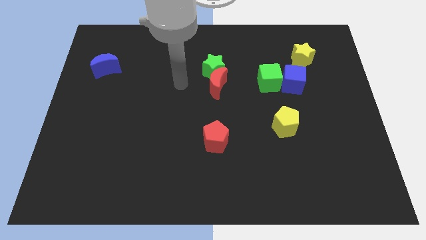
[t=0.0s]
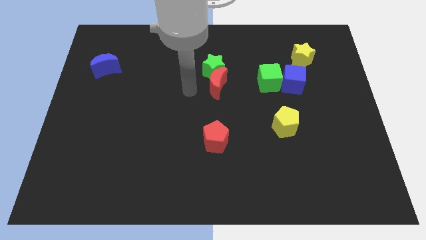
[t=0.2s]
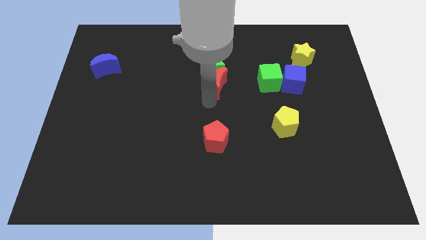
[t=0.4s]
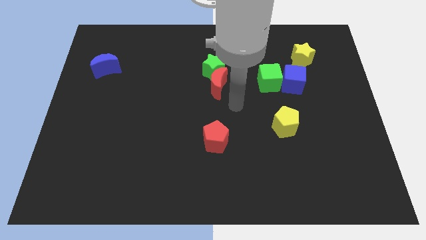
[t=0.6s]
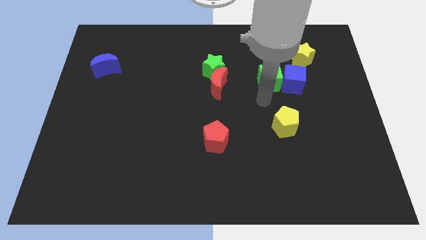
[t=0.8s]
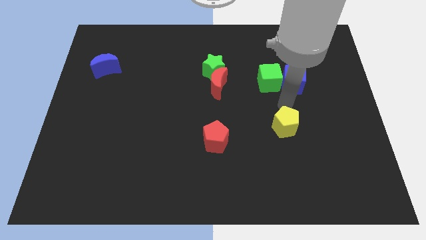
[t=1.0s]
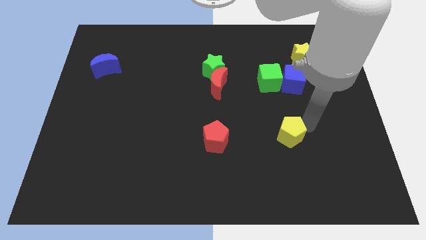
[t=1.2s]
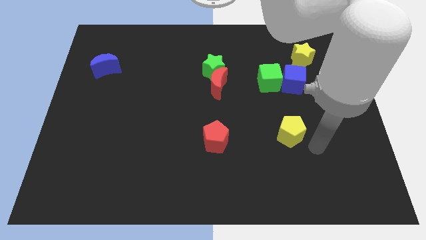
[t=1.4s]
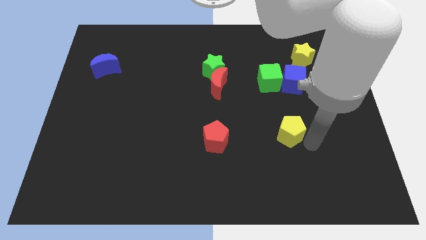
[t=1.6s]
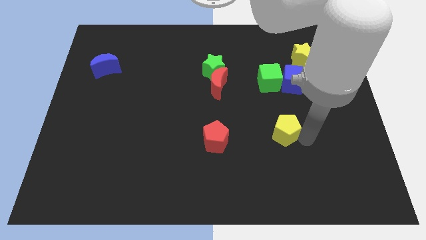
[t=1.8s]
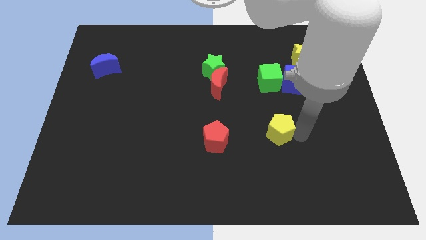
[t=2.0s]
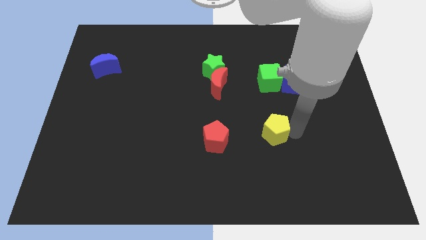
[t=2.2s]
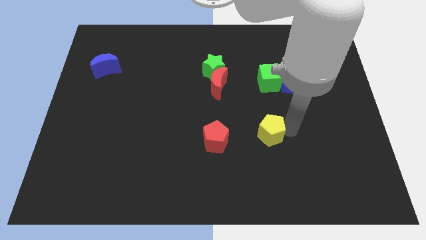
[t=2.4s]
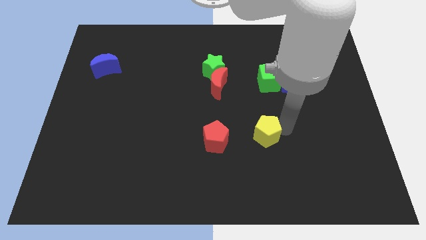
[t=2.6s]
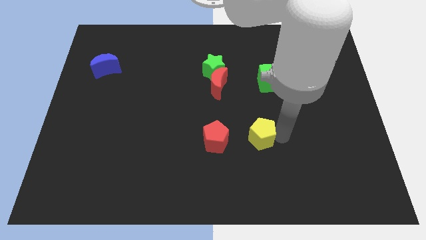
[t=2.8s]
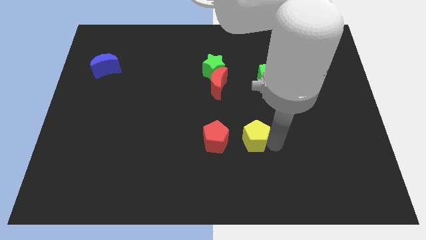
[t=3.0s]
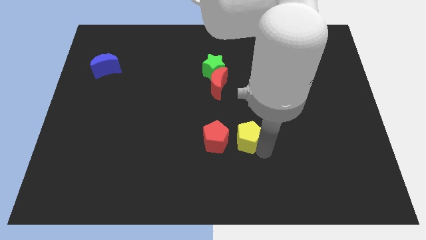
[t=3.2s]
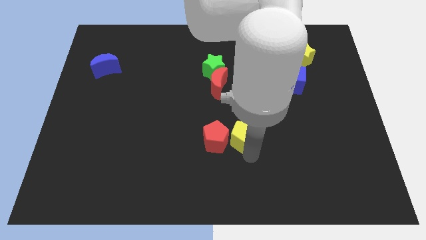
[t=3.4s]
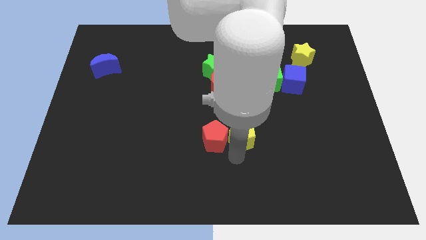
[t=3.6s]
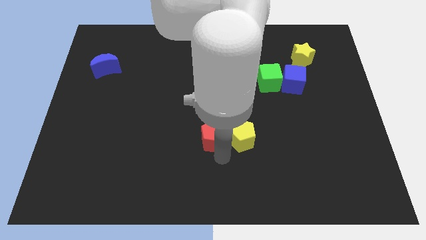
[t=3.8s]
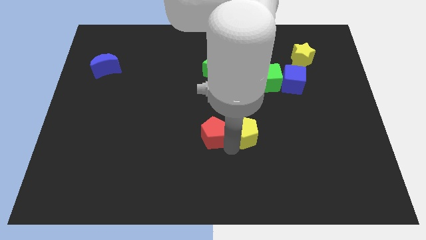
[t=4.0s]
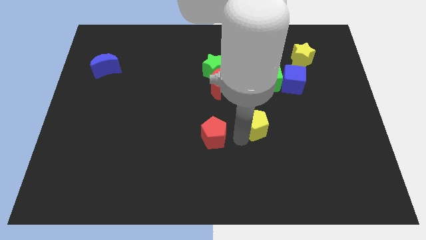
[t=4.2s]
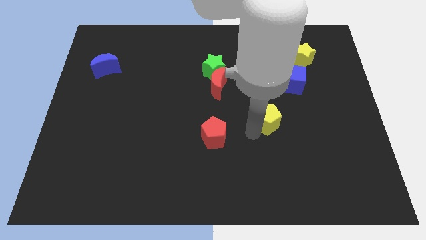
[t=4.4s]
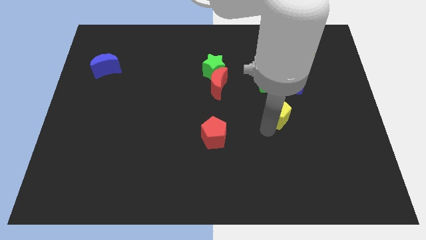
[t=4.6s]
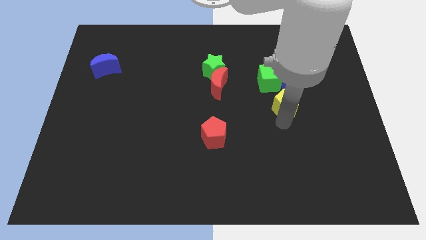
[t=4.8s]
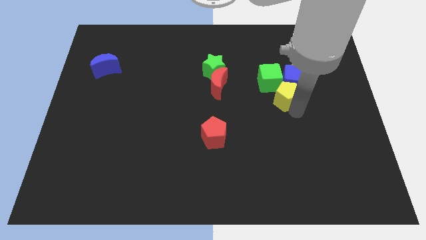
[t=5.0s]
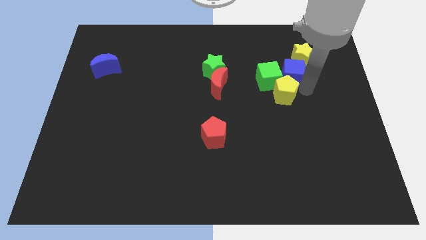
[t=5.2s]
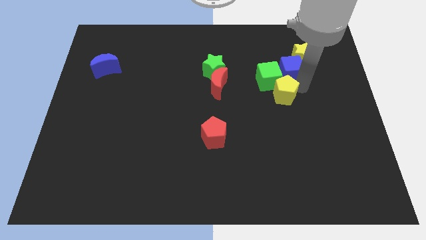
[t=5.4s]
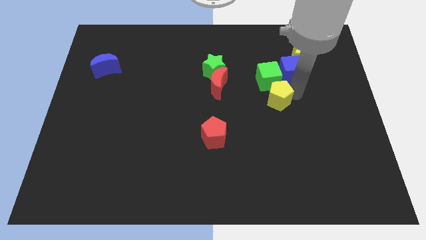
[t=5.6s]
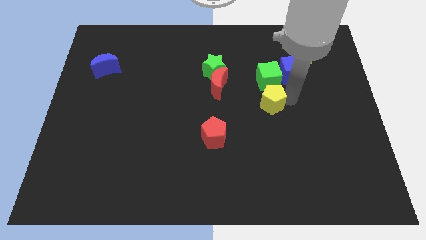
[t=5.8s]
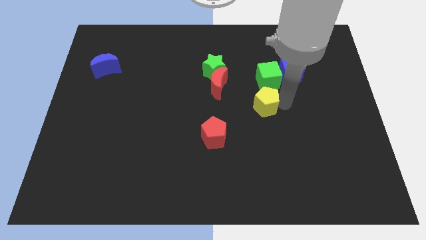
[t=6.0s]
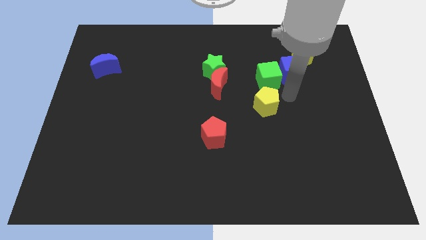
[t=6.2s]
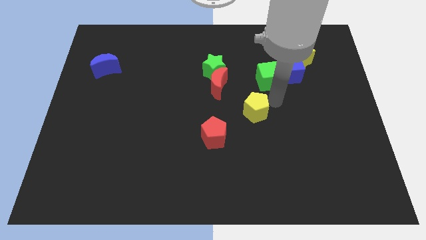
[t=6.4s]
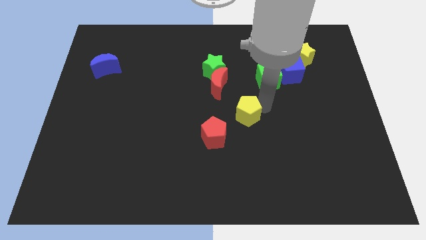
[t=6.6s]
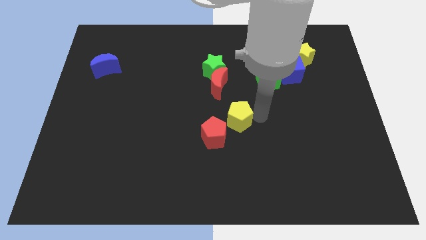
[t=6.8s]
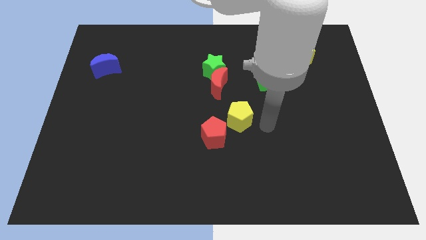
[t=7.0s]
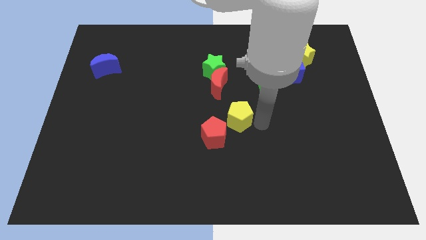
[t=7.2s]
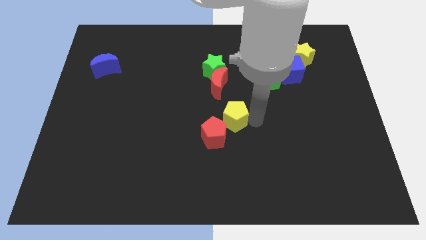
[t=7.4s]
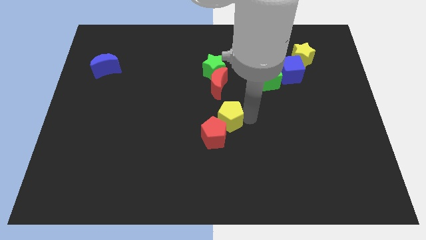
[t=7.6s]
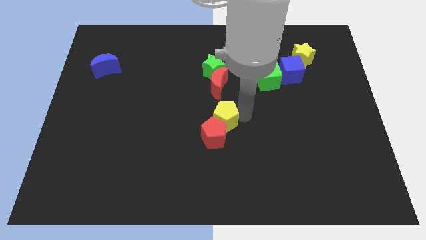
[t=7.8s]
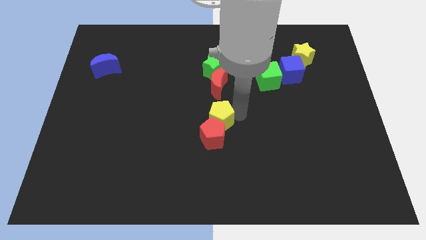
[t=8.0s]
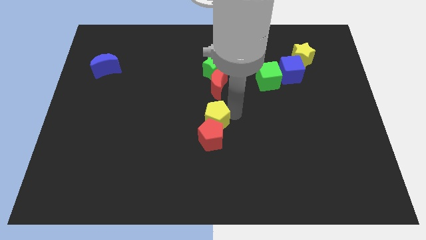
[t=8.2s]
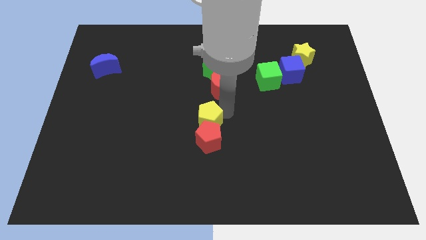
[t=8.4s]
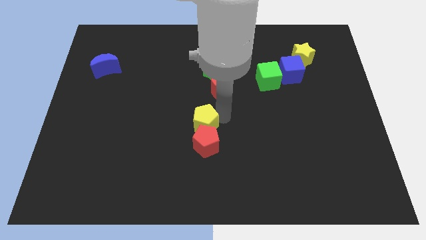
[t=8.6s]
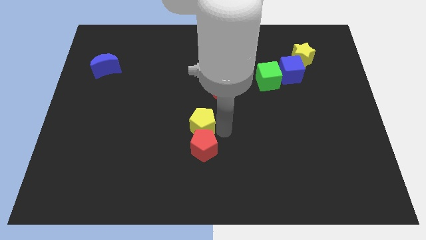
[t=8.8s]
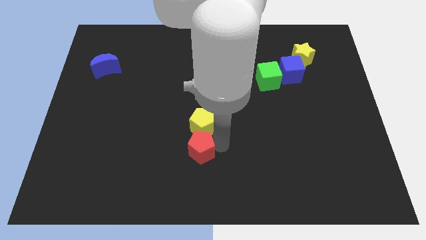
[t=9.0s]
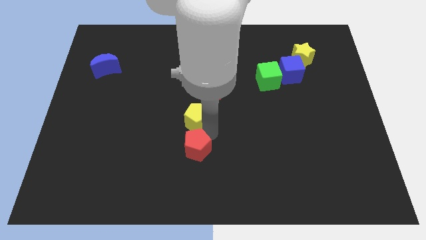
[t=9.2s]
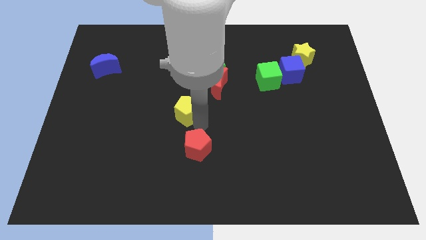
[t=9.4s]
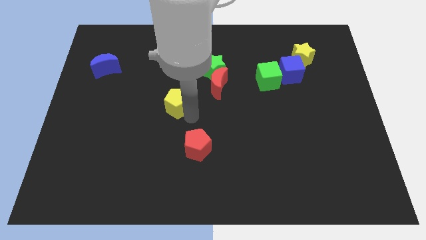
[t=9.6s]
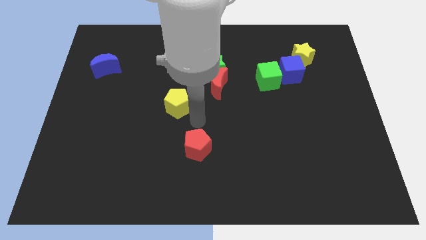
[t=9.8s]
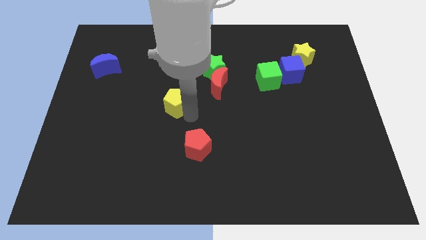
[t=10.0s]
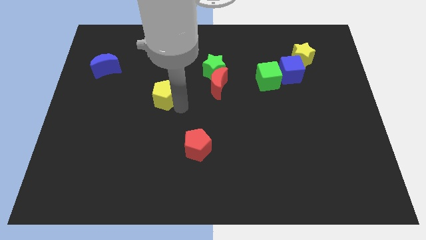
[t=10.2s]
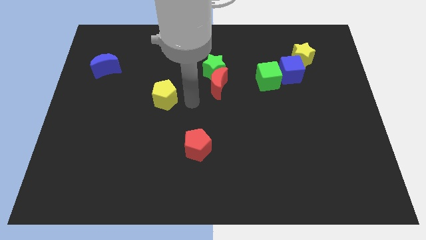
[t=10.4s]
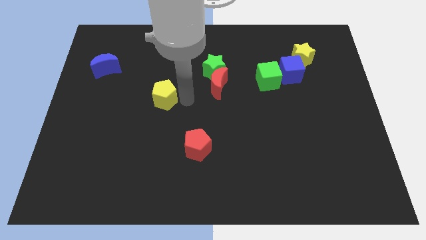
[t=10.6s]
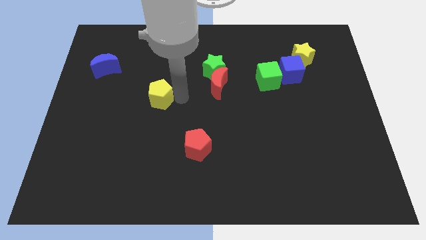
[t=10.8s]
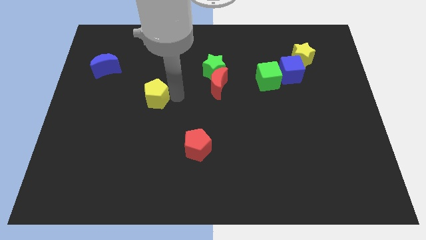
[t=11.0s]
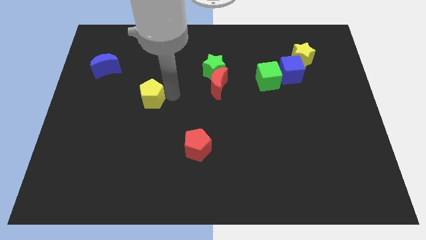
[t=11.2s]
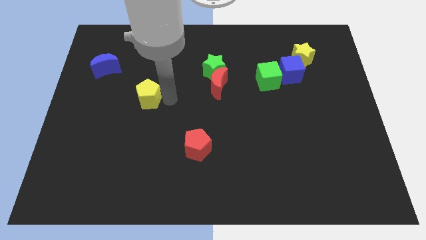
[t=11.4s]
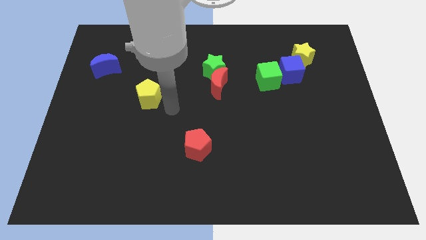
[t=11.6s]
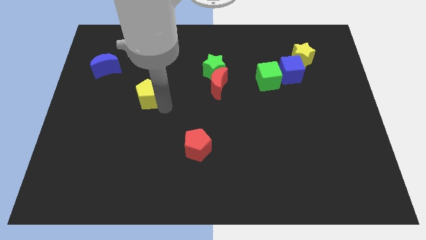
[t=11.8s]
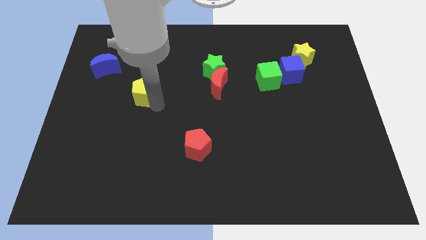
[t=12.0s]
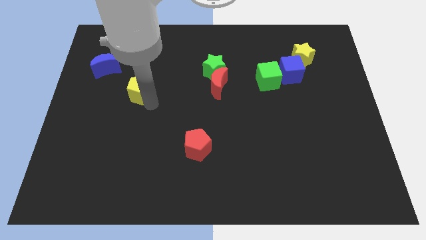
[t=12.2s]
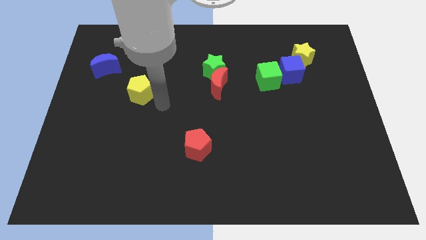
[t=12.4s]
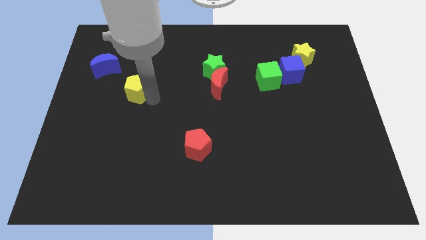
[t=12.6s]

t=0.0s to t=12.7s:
move the yellow pentagon to the bottom right side of the blue moon

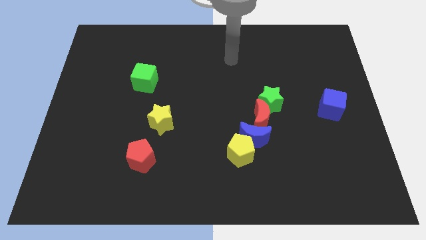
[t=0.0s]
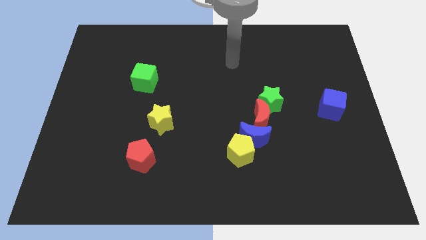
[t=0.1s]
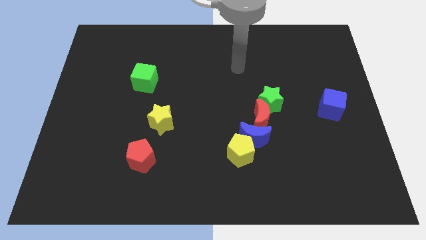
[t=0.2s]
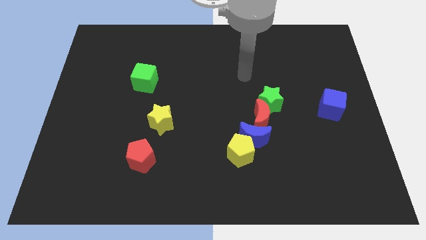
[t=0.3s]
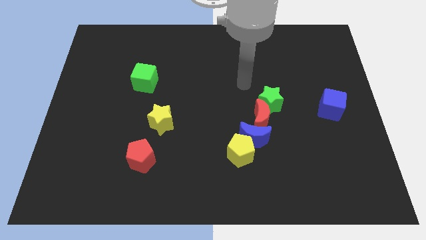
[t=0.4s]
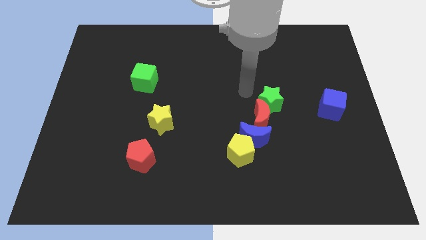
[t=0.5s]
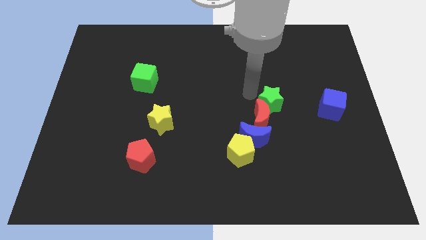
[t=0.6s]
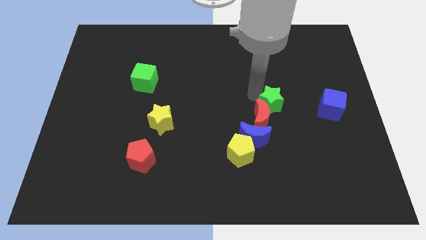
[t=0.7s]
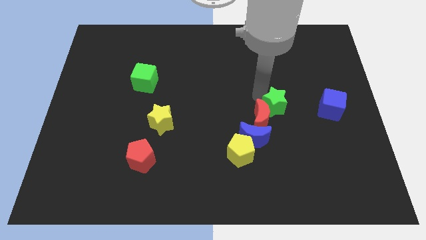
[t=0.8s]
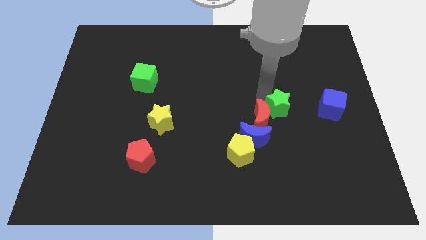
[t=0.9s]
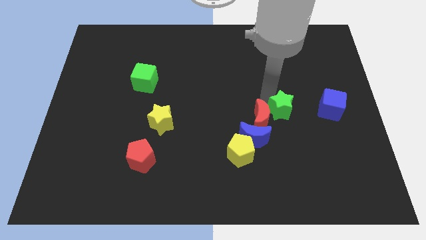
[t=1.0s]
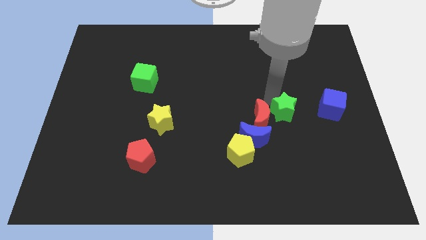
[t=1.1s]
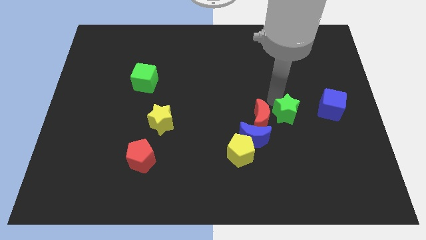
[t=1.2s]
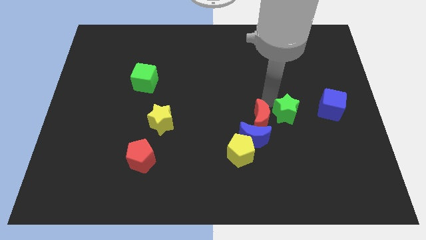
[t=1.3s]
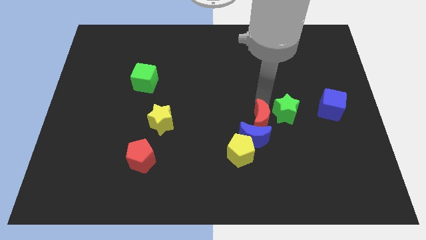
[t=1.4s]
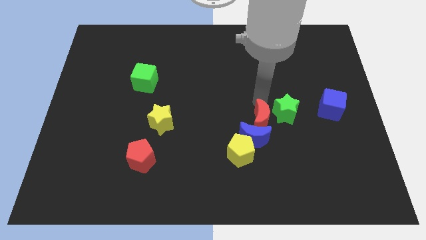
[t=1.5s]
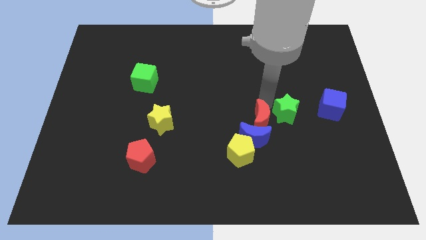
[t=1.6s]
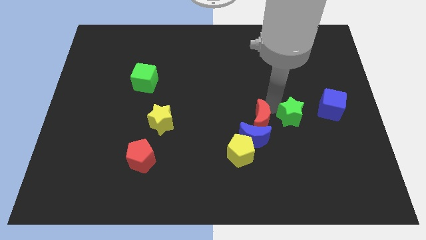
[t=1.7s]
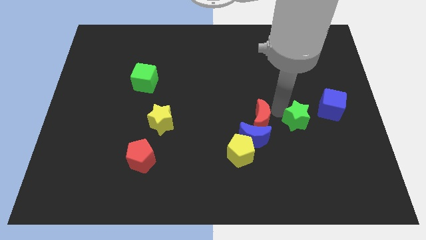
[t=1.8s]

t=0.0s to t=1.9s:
put the green star diagonally down and to the left of the blue cube
